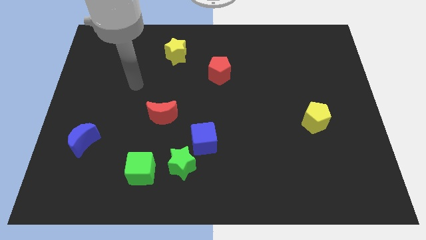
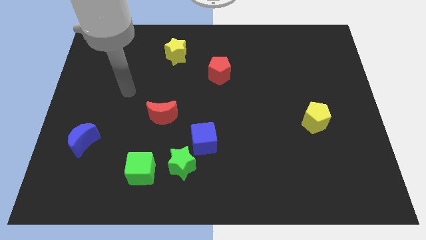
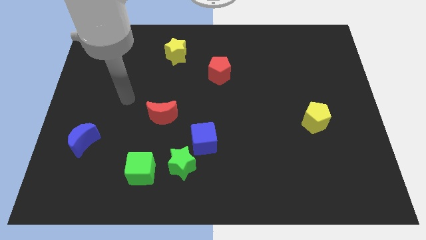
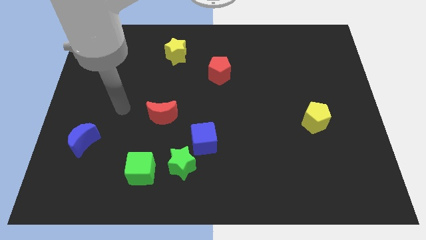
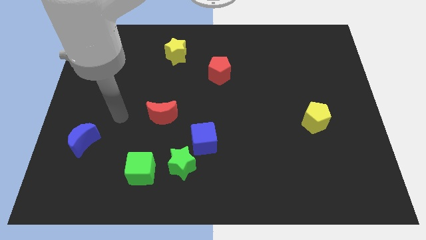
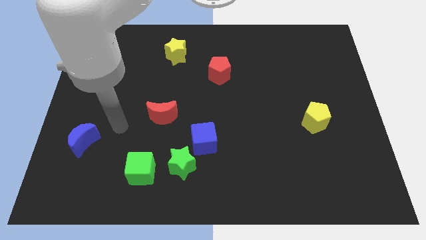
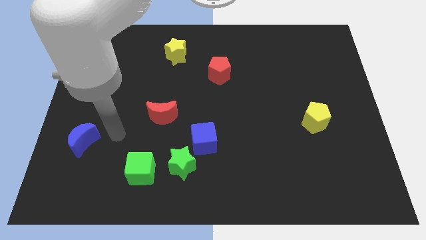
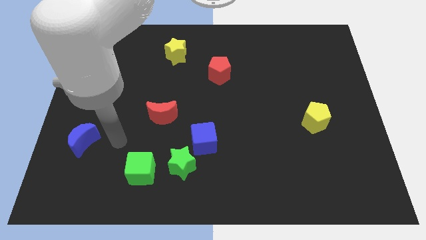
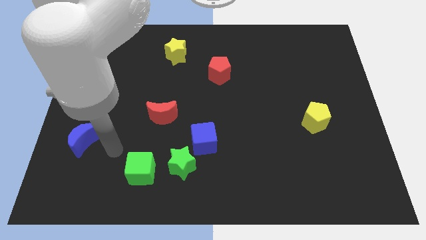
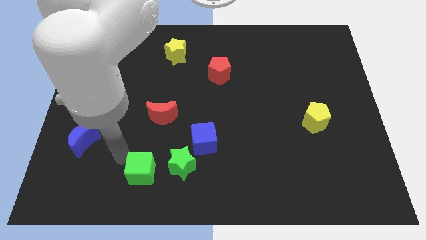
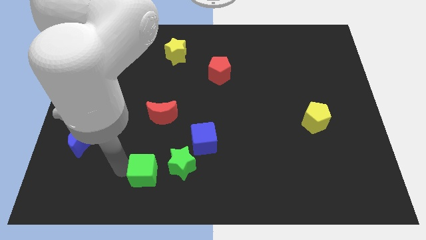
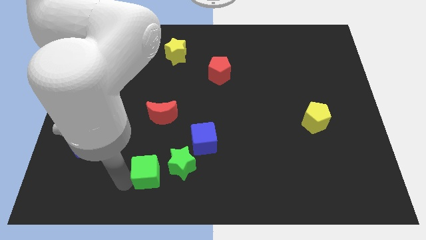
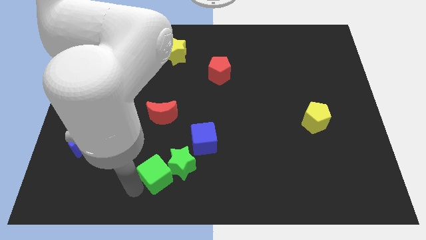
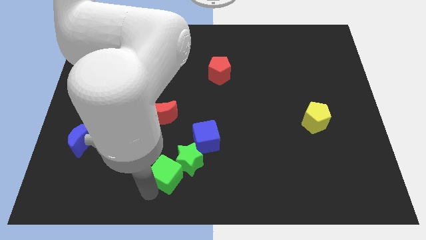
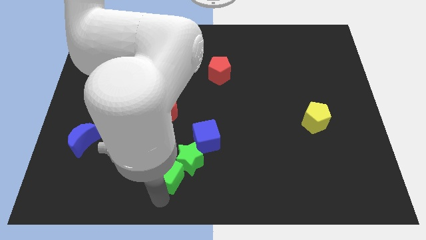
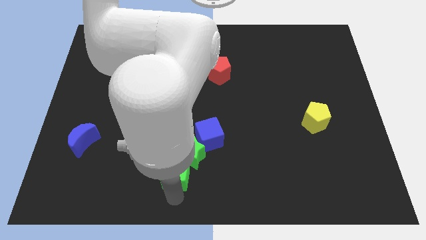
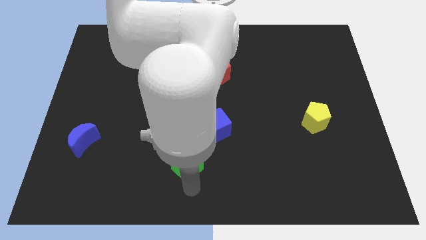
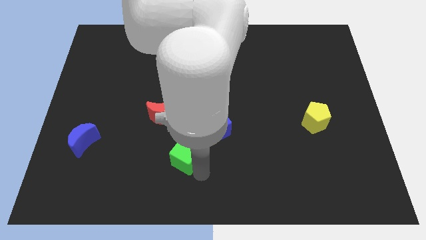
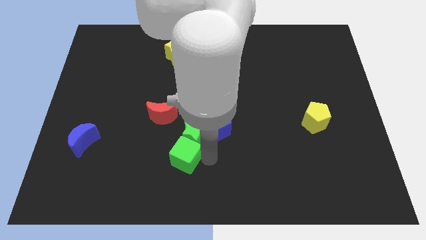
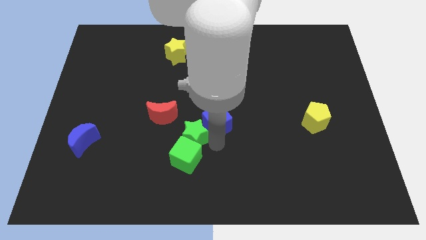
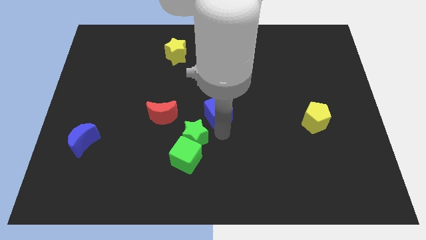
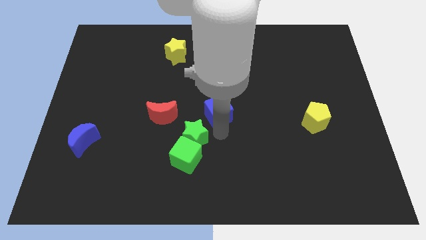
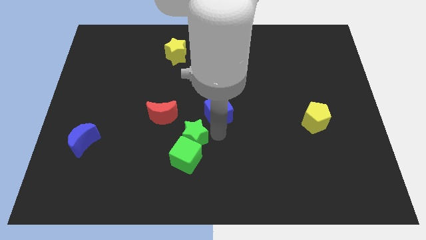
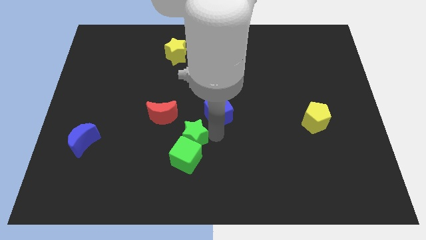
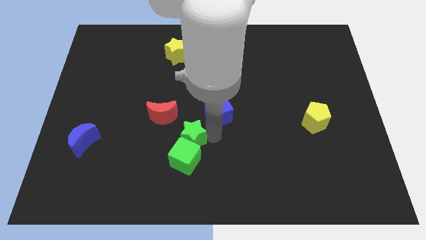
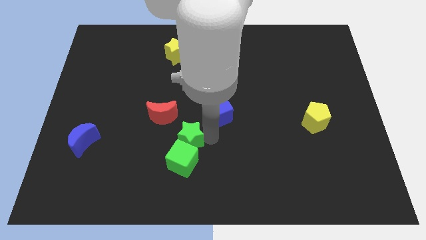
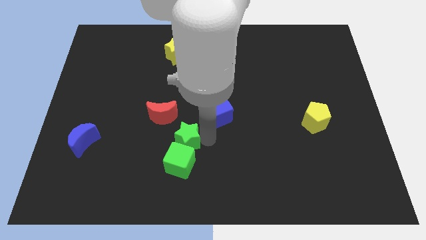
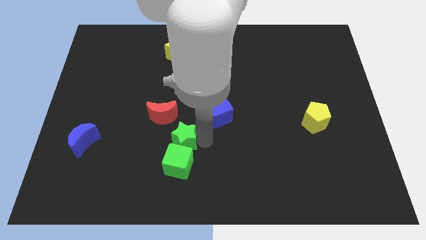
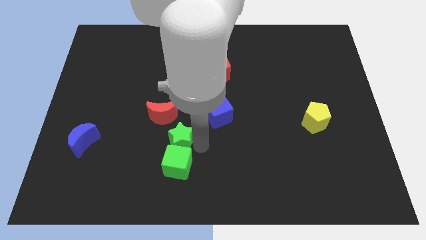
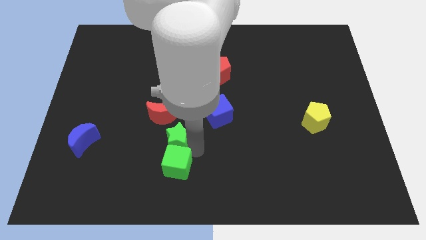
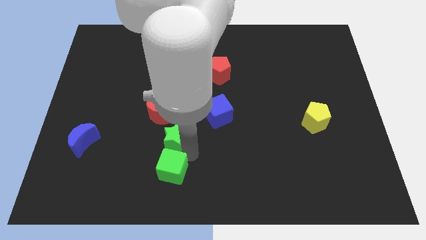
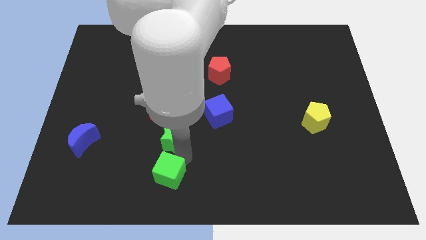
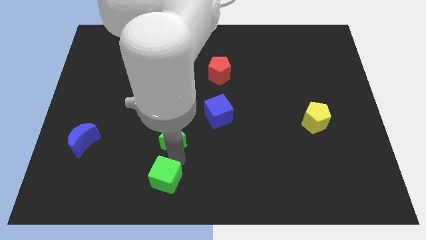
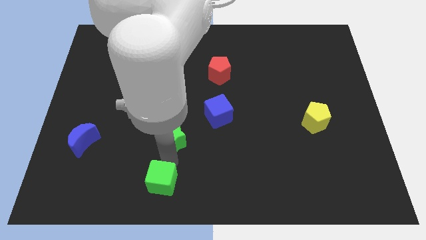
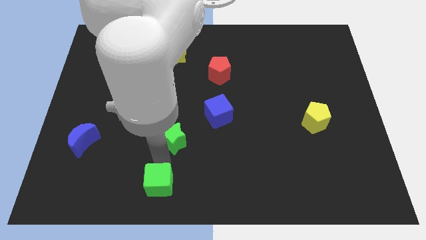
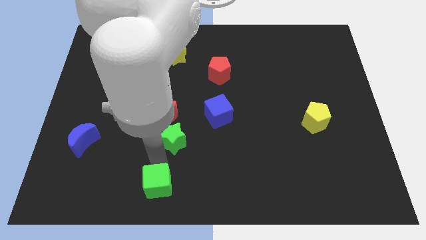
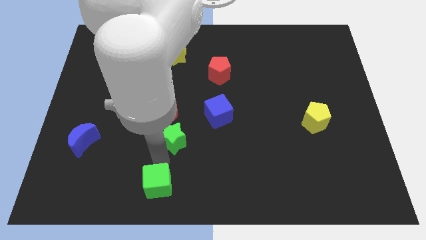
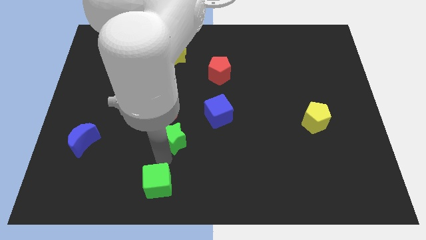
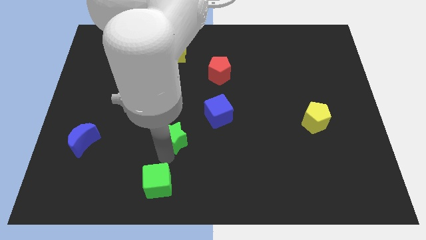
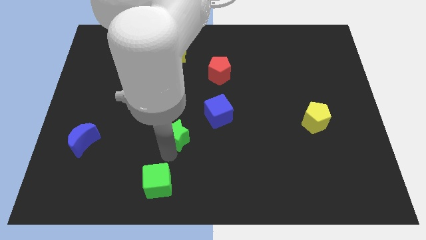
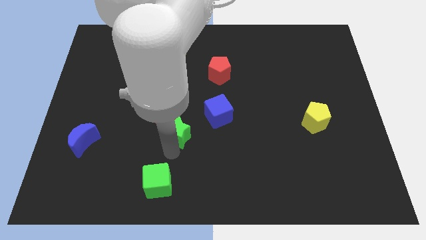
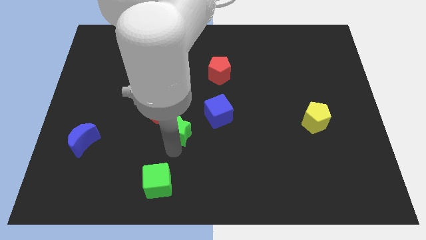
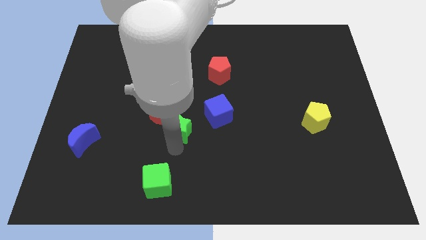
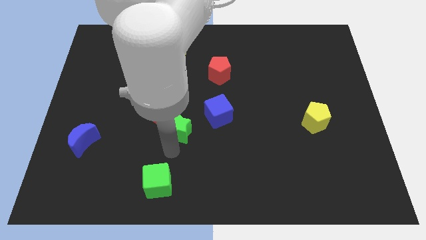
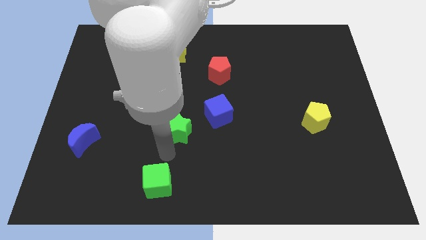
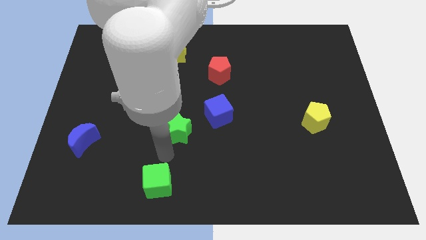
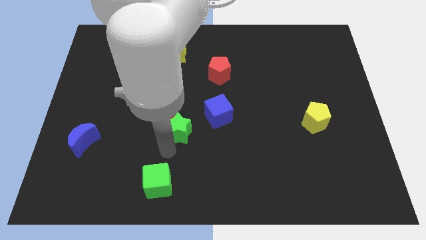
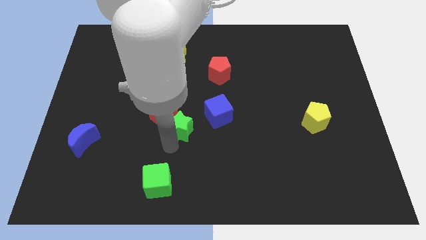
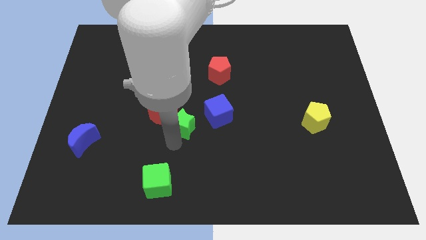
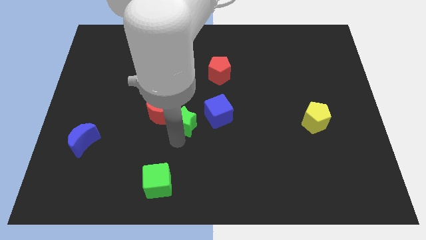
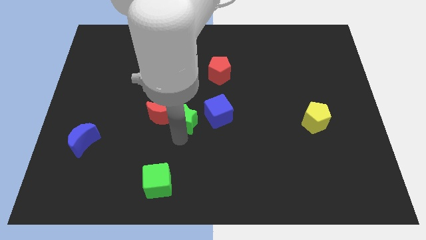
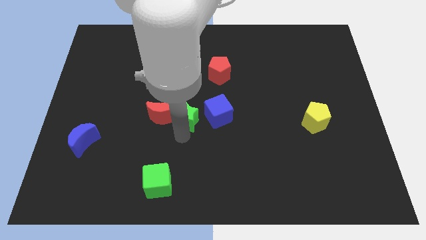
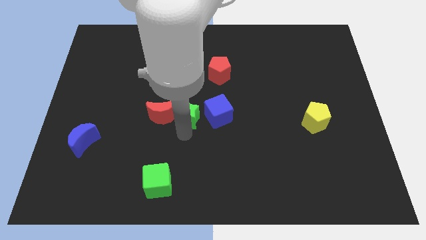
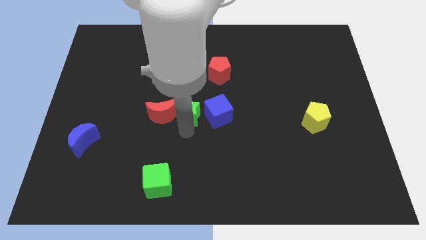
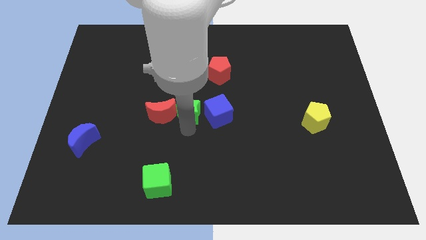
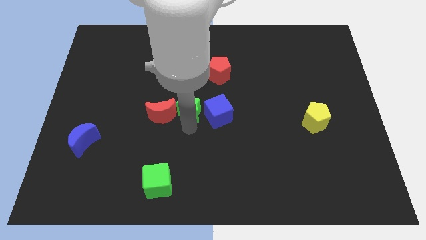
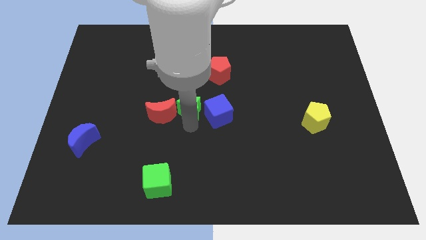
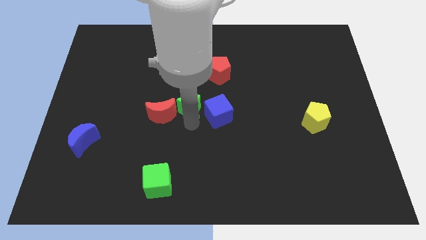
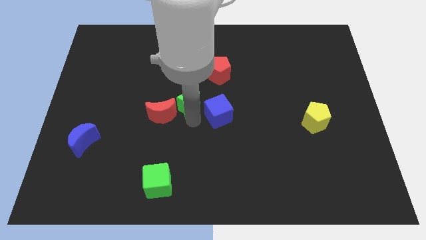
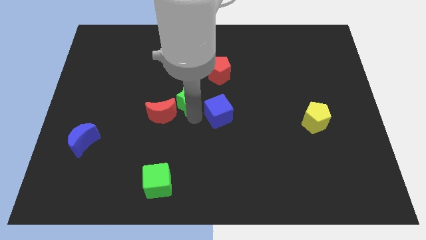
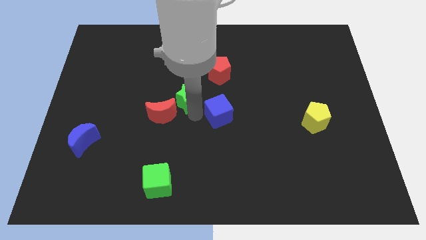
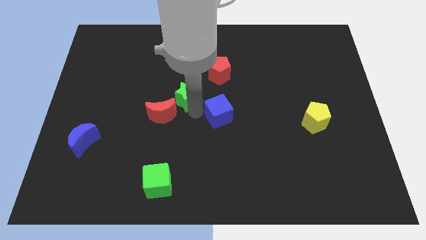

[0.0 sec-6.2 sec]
slide the green star to the bottom of the yellow star
